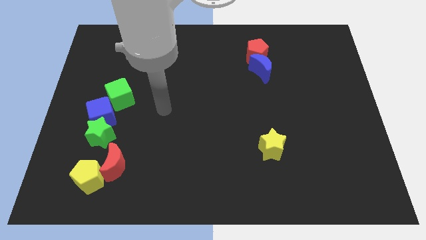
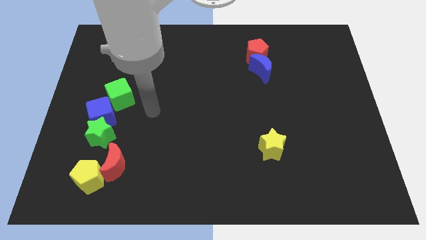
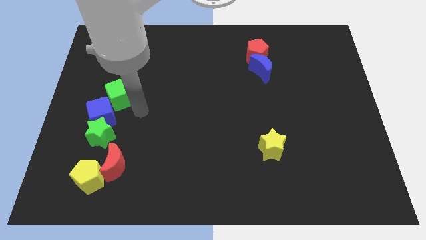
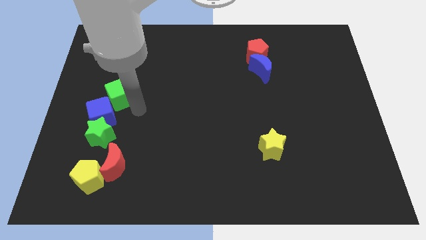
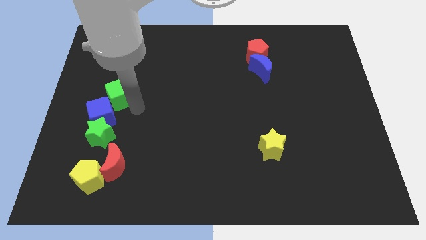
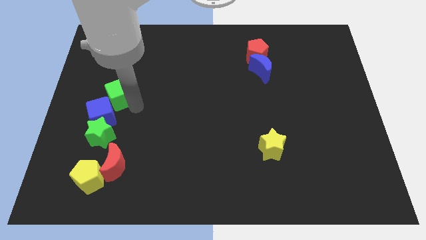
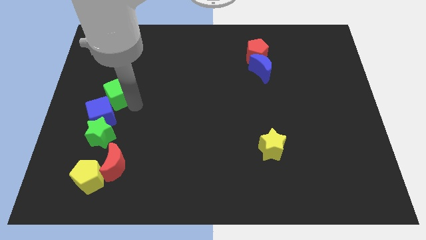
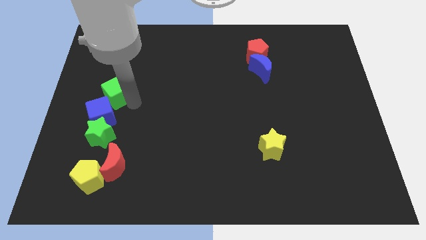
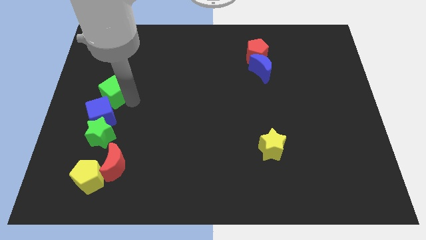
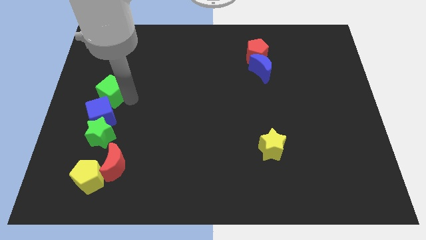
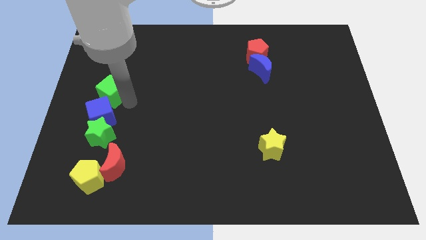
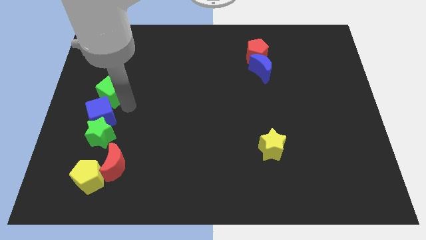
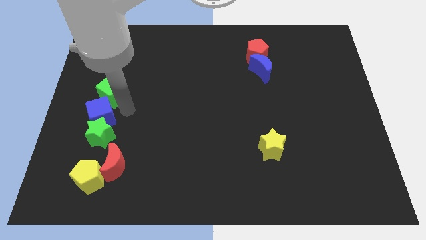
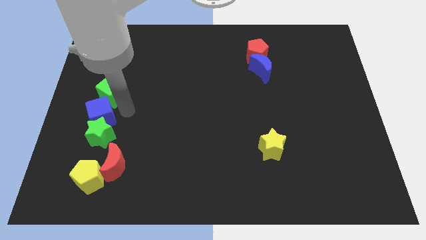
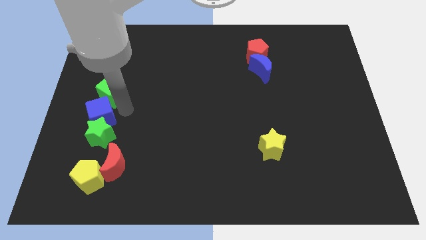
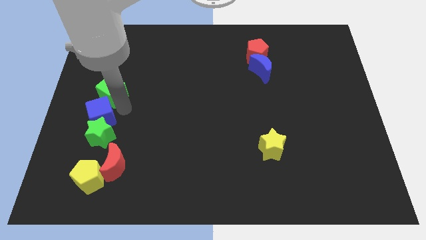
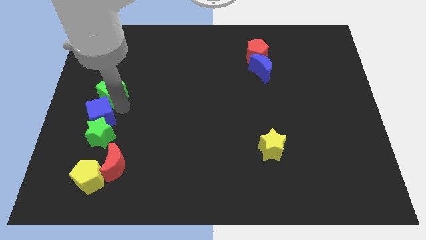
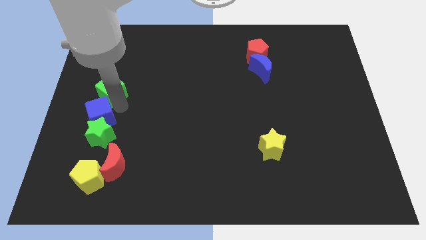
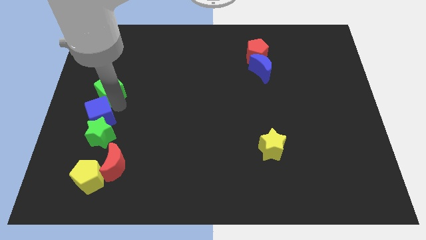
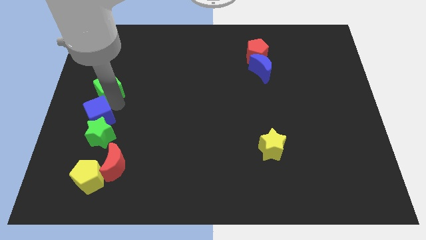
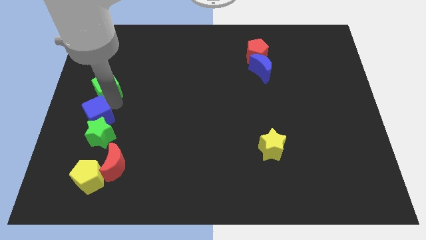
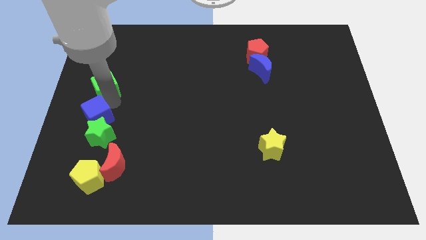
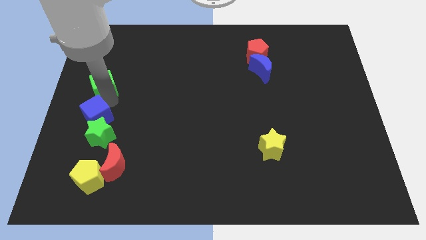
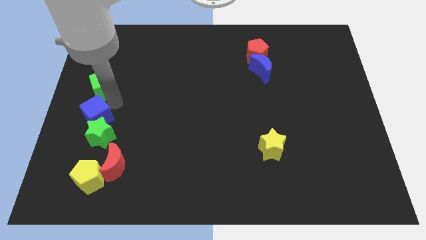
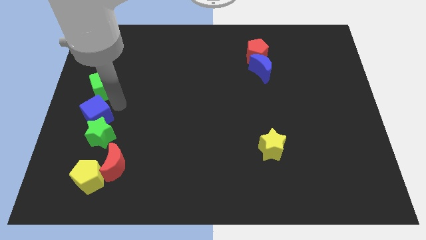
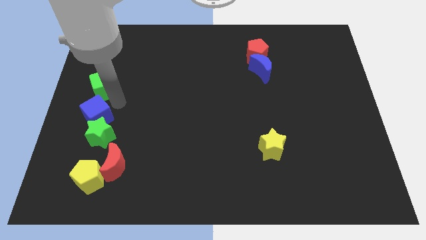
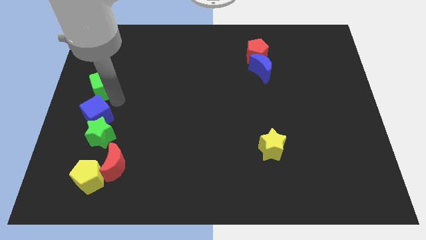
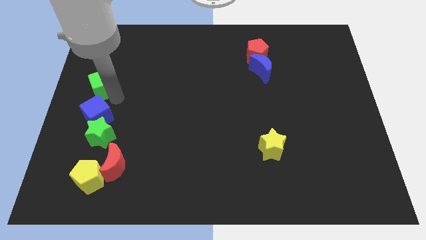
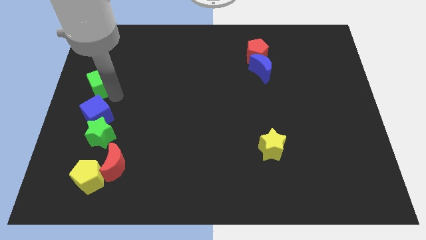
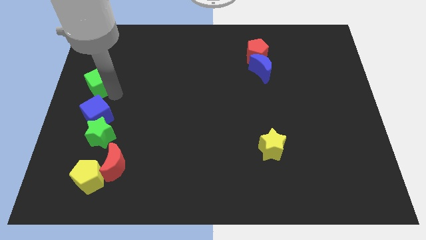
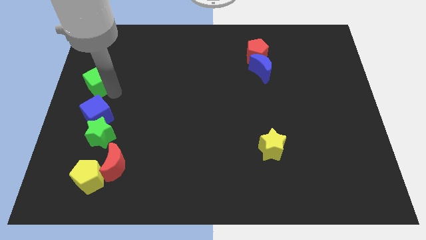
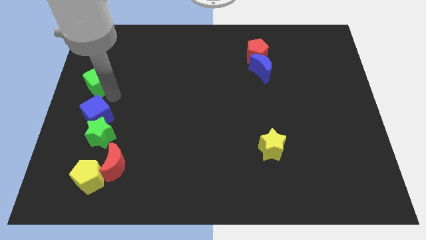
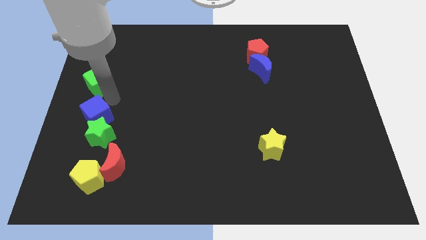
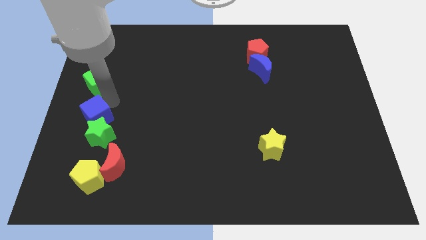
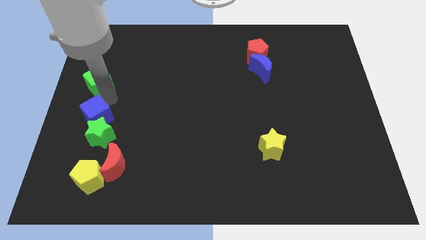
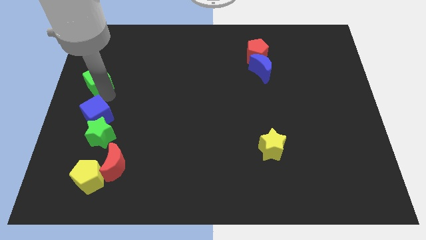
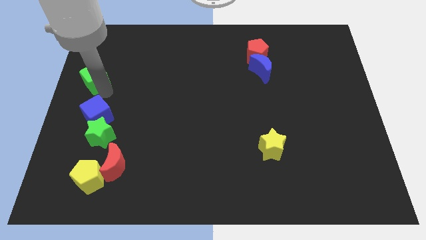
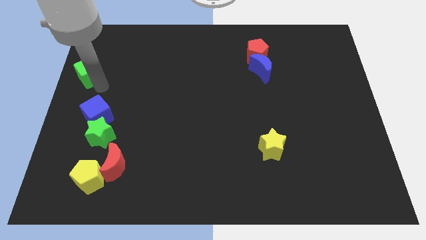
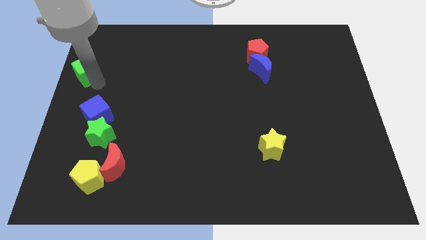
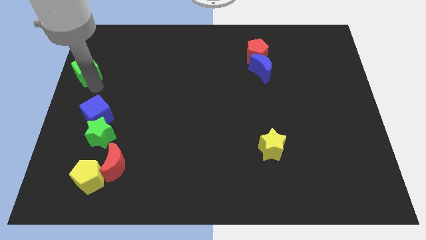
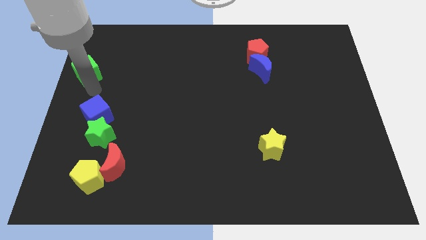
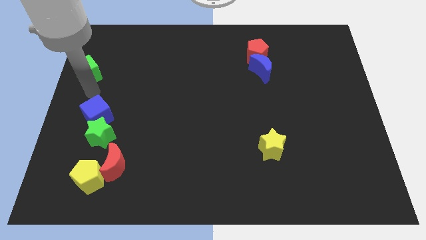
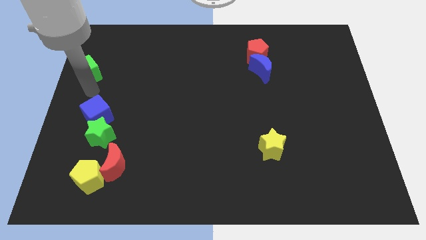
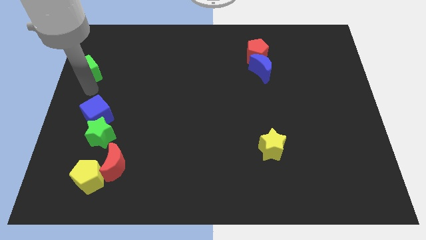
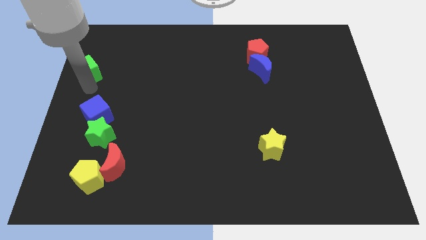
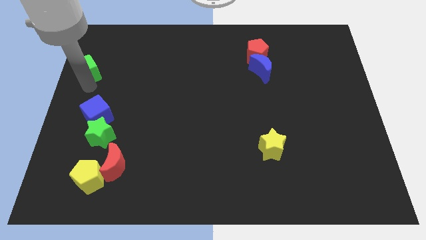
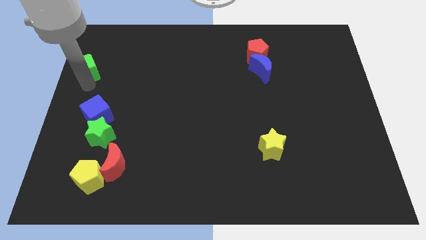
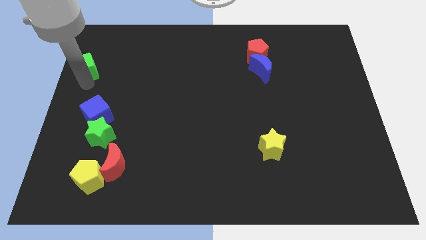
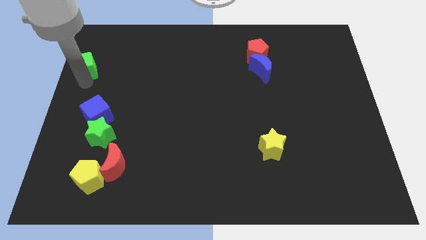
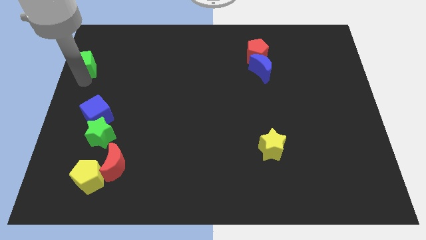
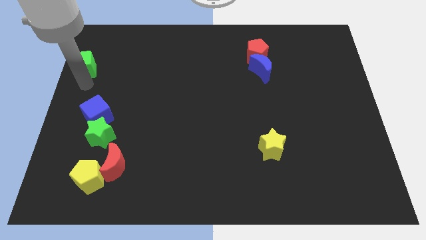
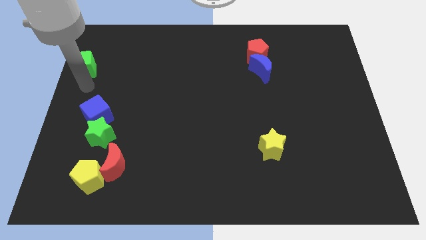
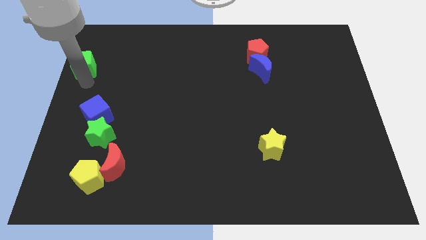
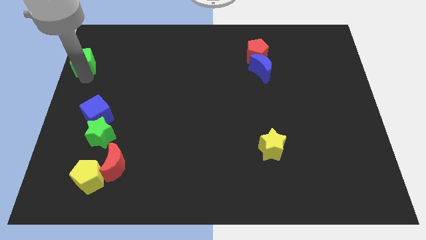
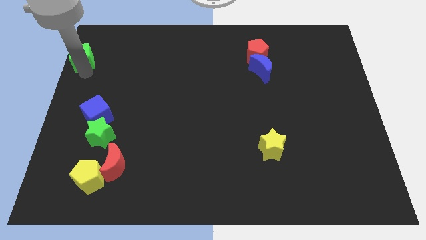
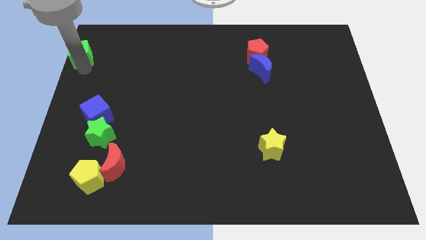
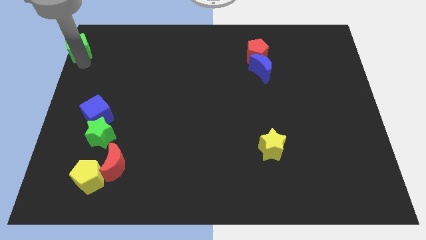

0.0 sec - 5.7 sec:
push the green cube to the top left

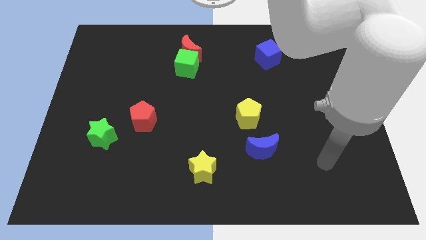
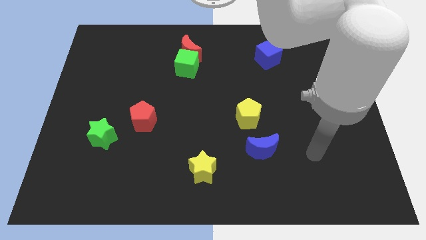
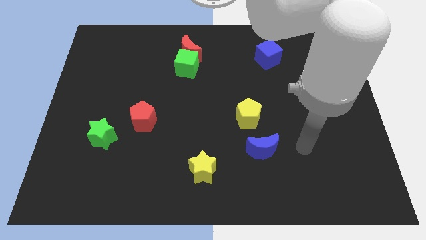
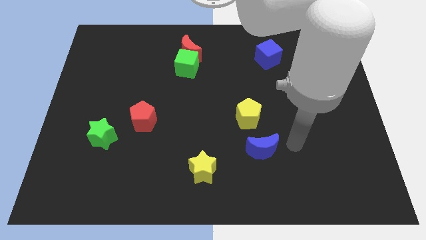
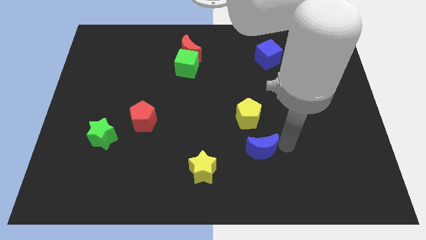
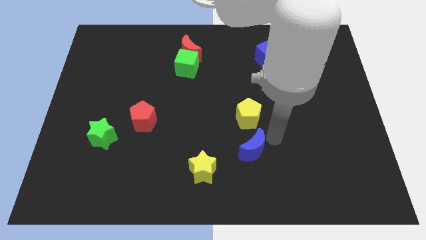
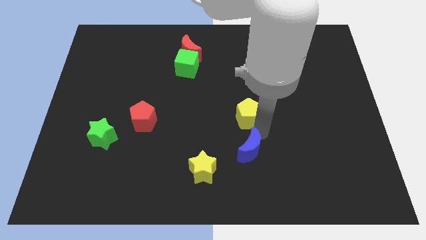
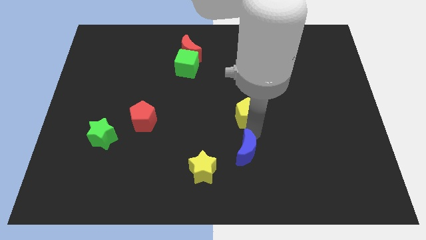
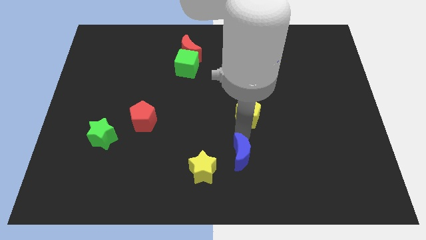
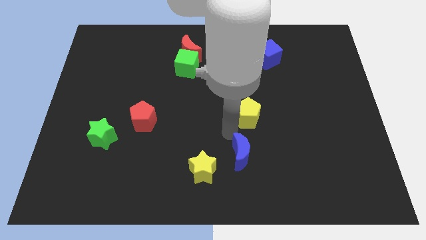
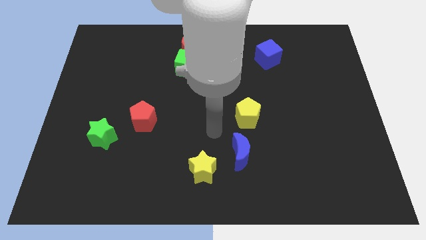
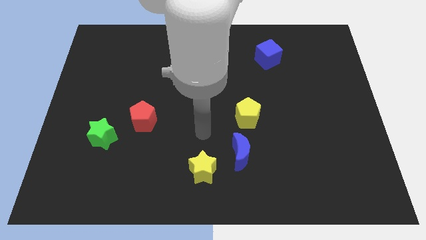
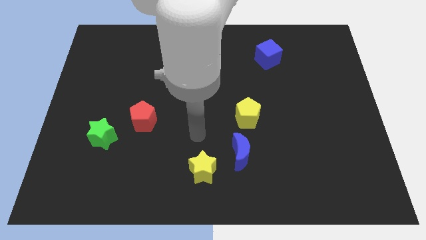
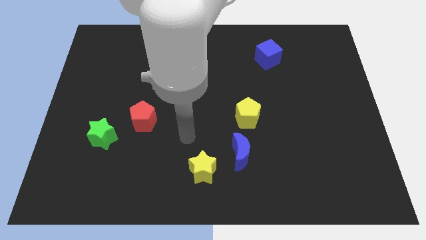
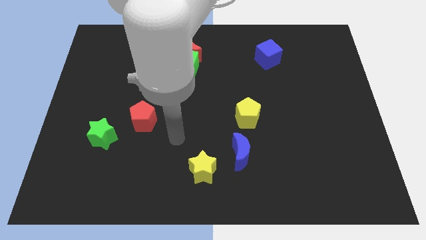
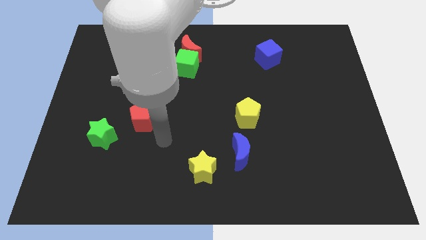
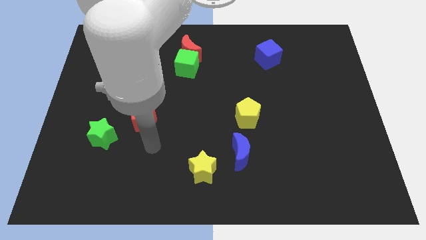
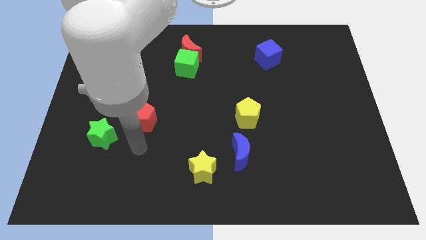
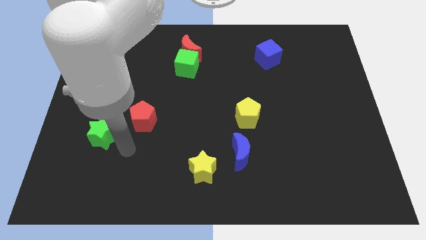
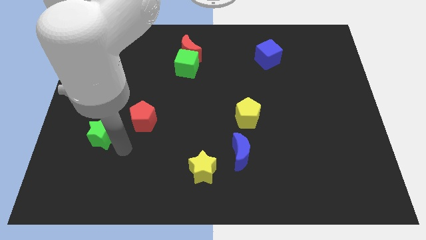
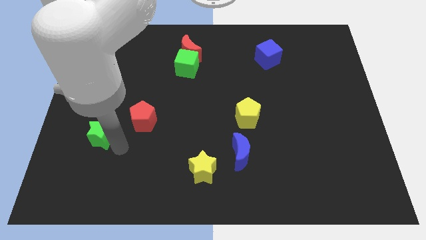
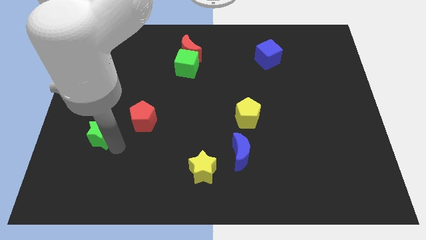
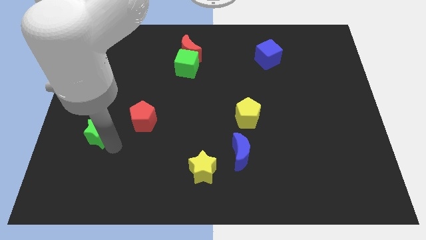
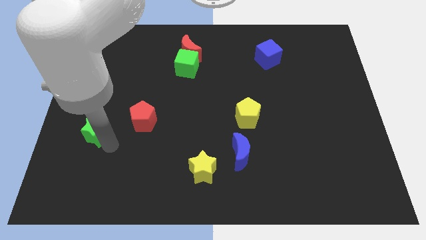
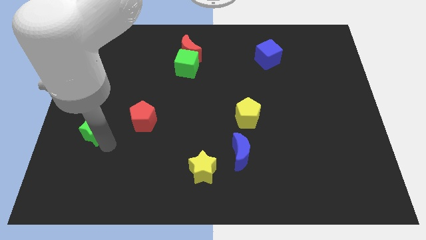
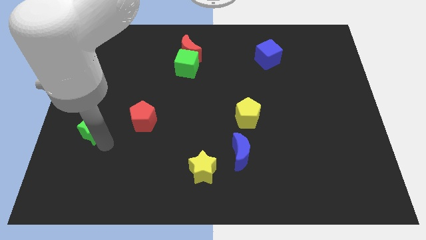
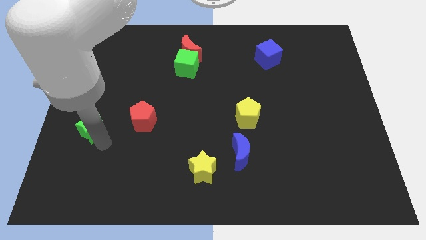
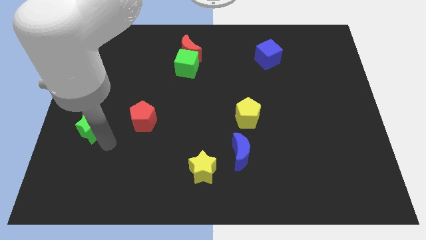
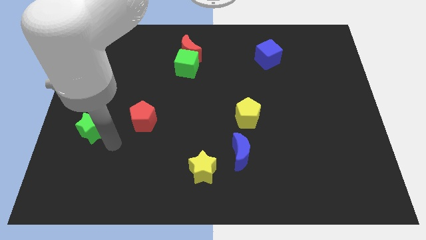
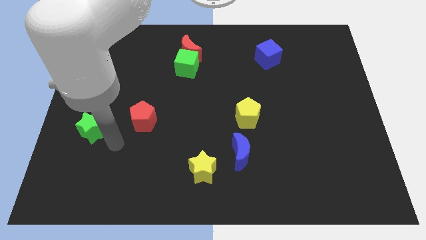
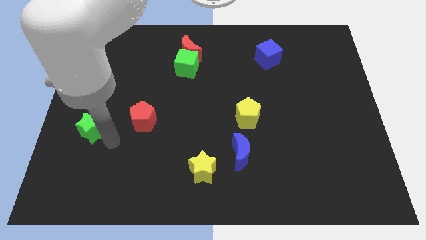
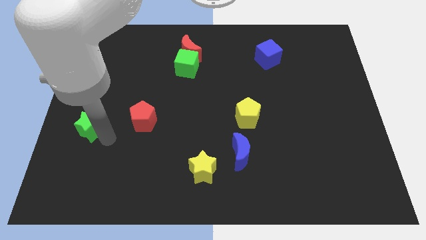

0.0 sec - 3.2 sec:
slide the green star to the center left
